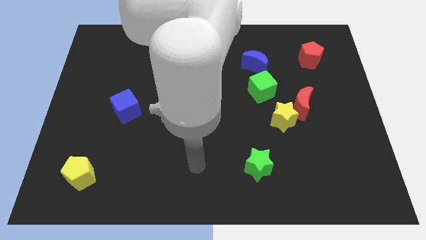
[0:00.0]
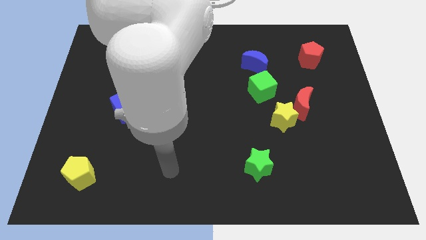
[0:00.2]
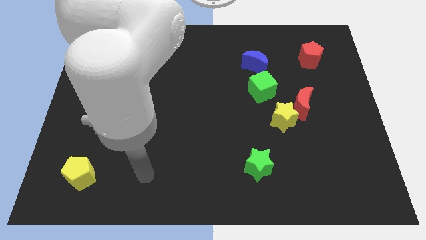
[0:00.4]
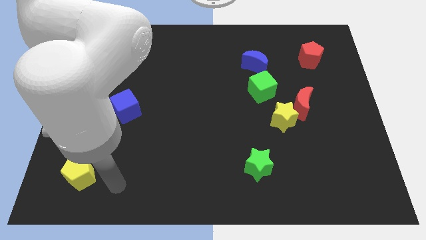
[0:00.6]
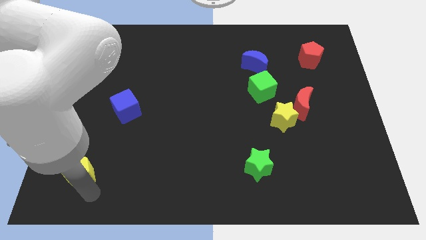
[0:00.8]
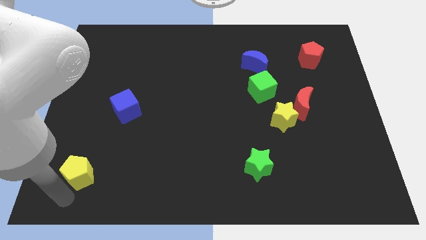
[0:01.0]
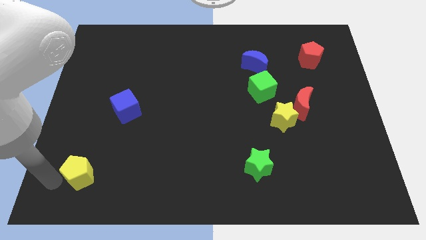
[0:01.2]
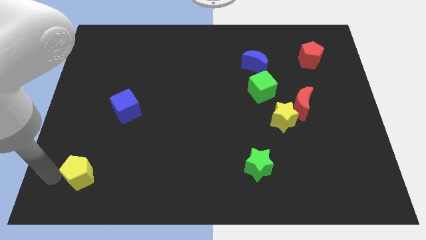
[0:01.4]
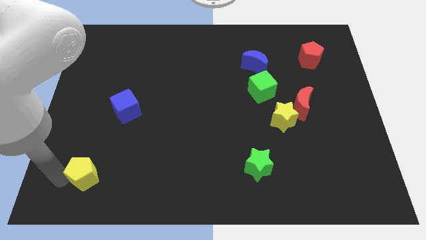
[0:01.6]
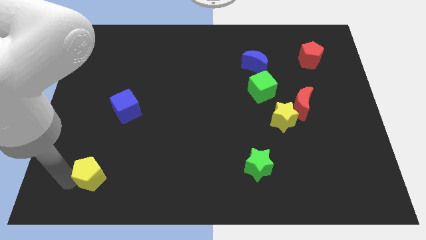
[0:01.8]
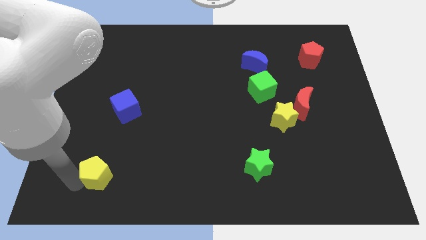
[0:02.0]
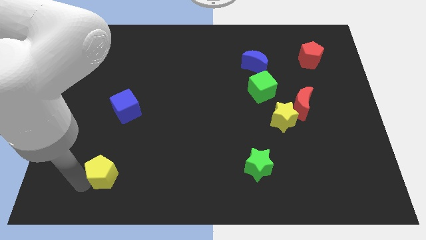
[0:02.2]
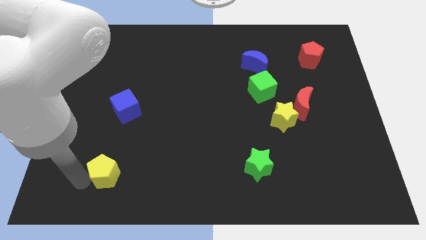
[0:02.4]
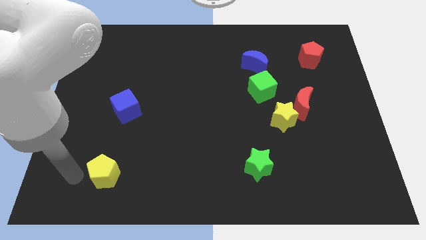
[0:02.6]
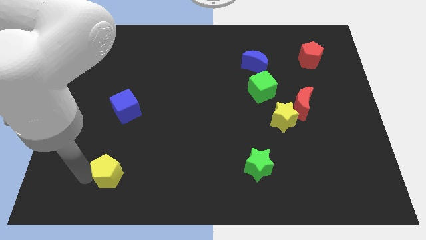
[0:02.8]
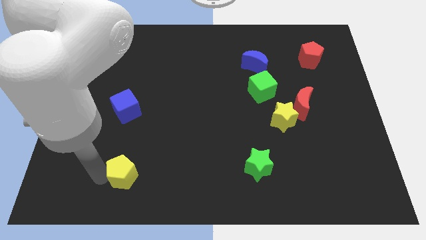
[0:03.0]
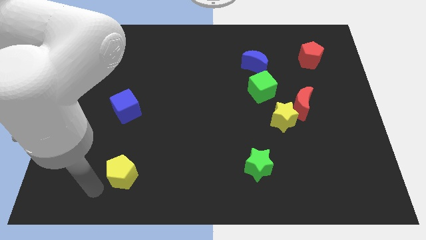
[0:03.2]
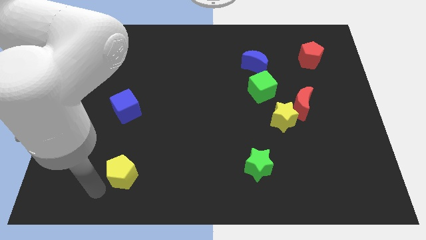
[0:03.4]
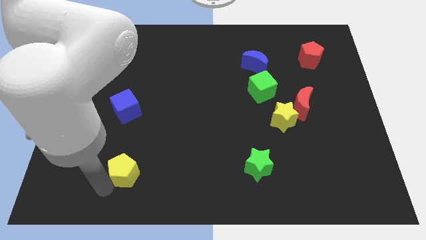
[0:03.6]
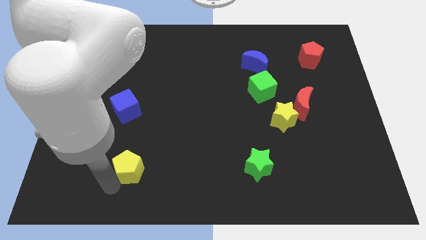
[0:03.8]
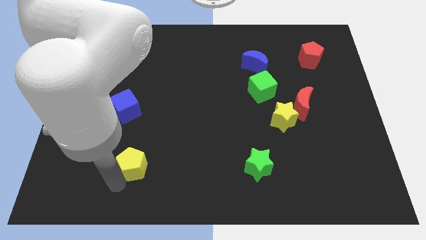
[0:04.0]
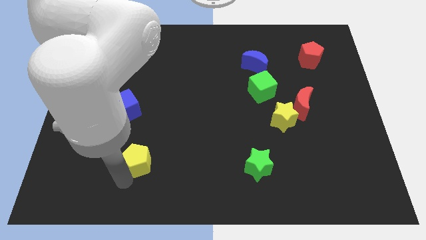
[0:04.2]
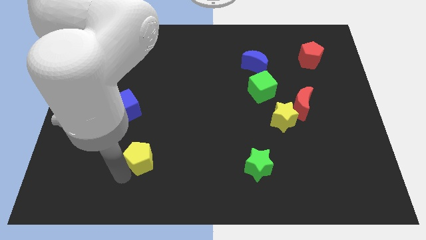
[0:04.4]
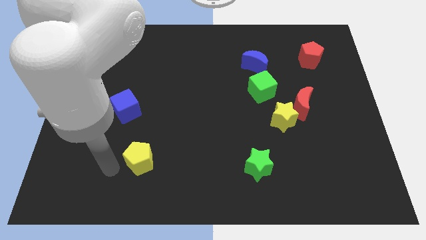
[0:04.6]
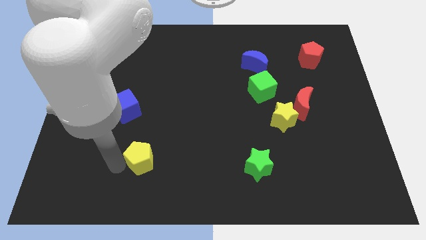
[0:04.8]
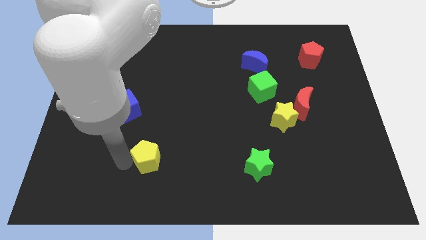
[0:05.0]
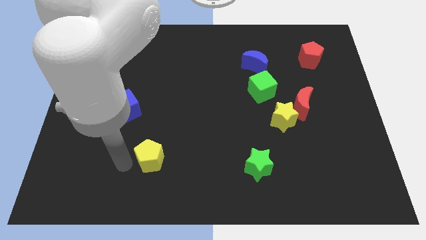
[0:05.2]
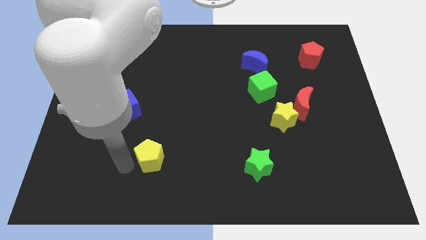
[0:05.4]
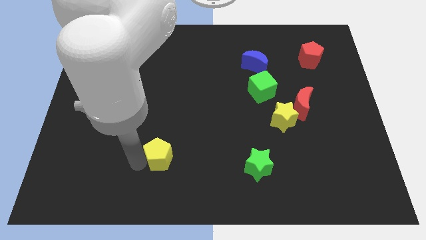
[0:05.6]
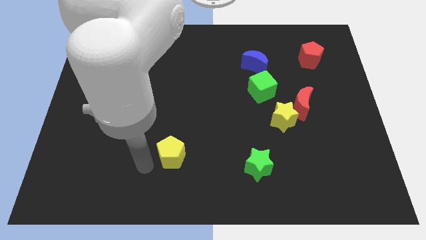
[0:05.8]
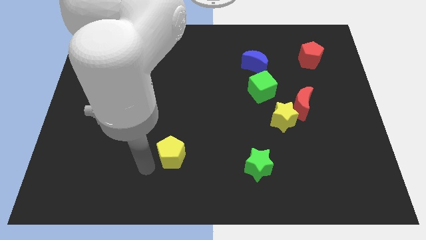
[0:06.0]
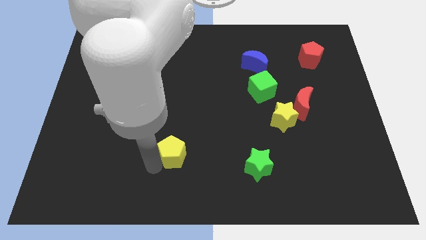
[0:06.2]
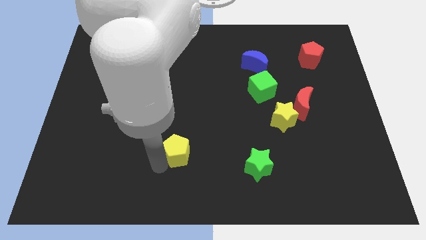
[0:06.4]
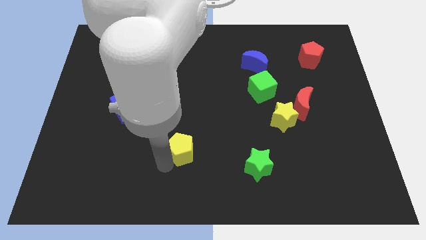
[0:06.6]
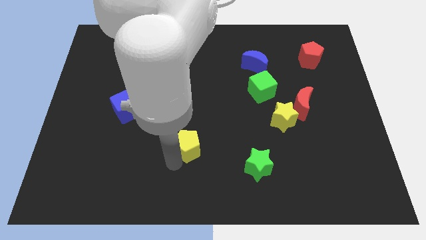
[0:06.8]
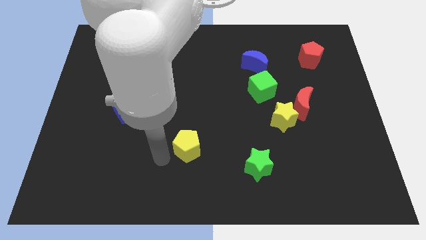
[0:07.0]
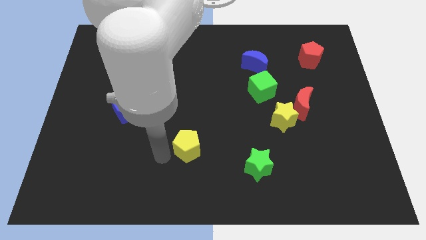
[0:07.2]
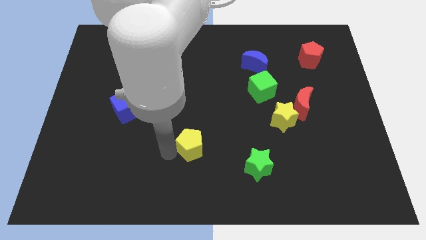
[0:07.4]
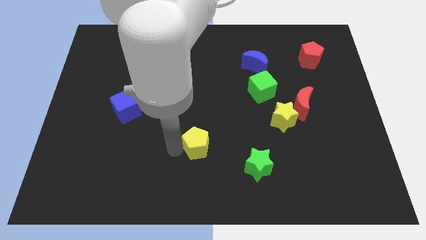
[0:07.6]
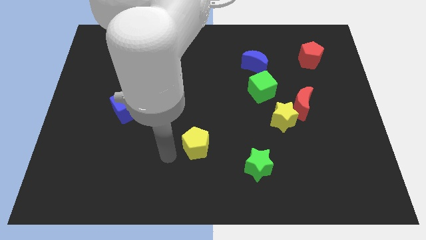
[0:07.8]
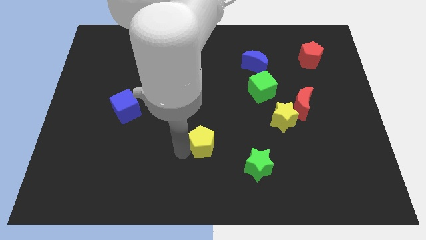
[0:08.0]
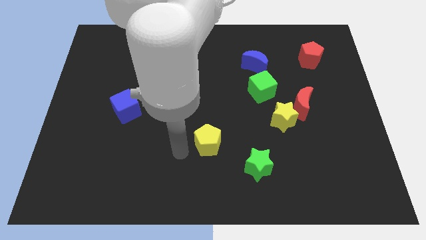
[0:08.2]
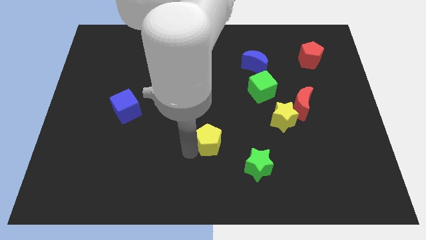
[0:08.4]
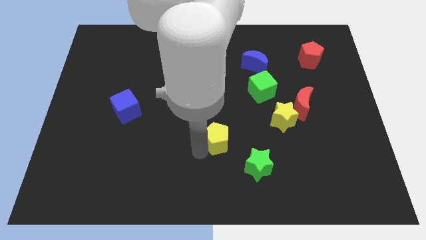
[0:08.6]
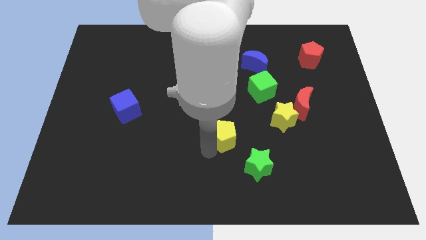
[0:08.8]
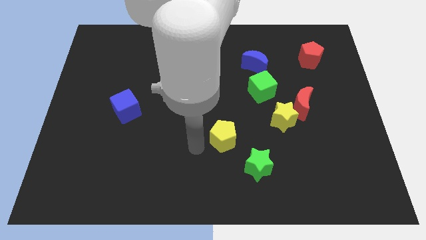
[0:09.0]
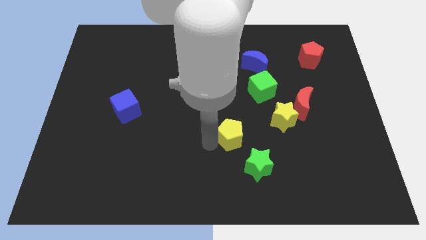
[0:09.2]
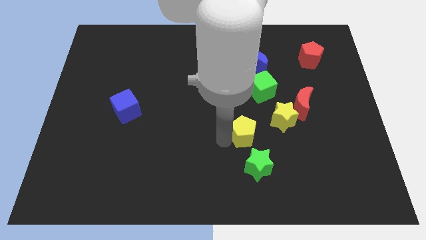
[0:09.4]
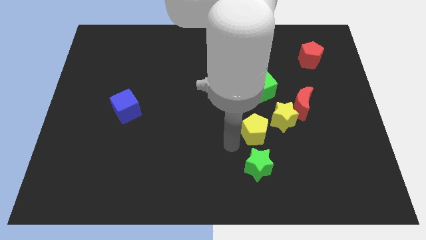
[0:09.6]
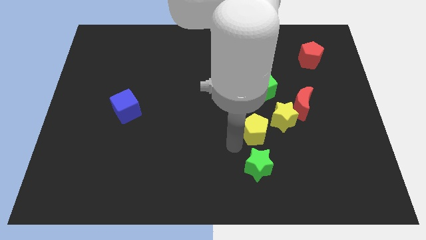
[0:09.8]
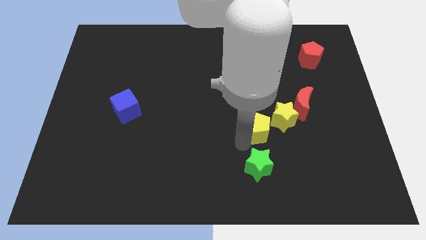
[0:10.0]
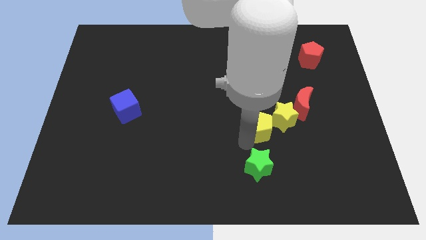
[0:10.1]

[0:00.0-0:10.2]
slide the yellow pentagon next to the yellow star

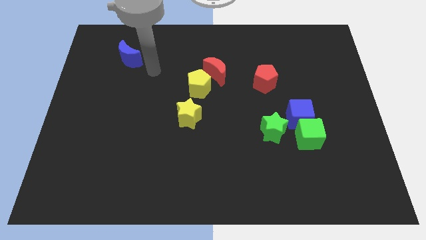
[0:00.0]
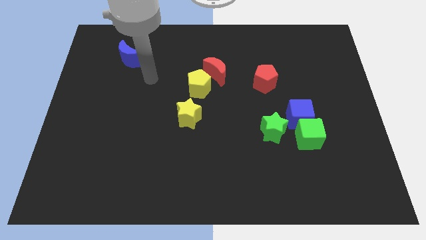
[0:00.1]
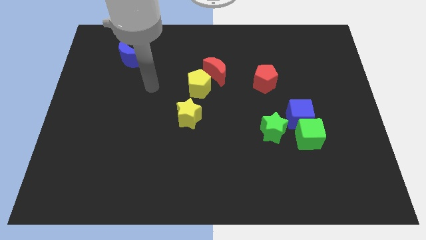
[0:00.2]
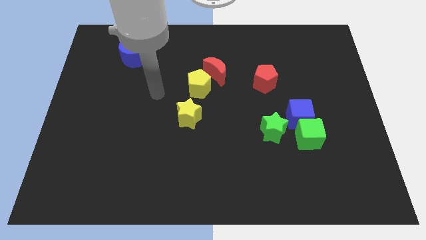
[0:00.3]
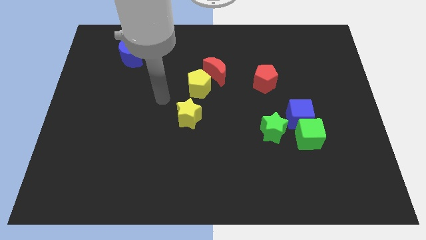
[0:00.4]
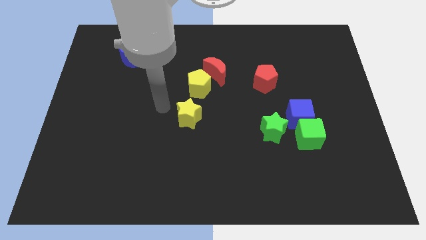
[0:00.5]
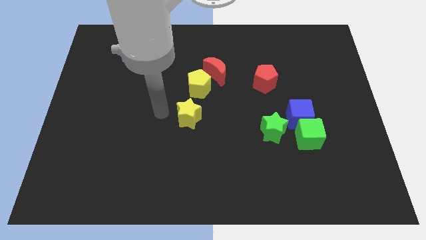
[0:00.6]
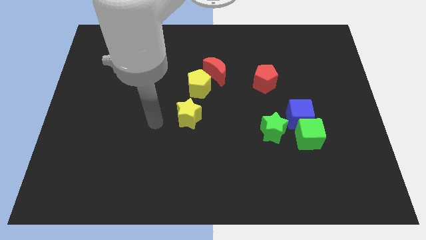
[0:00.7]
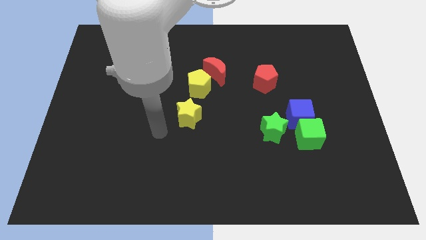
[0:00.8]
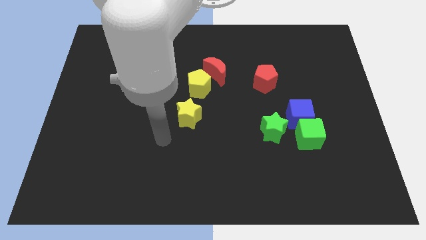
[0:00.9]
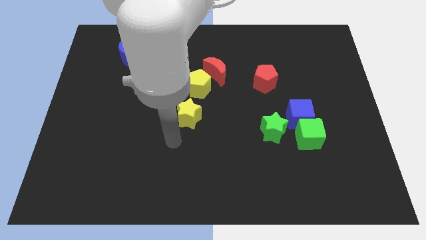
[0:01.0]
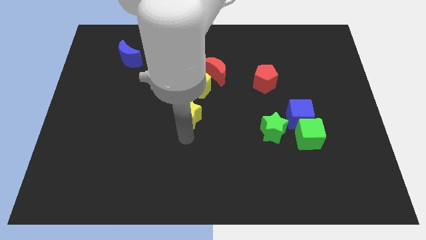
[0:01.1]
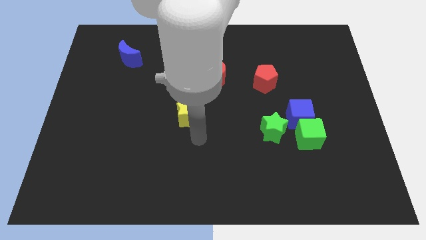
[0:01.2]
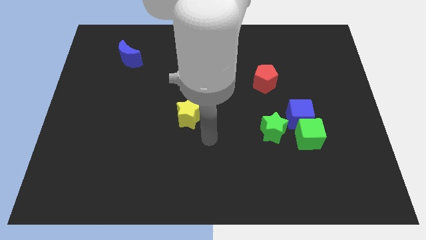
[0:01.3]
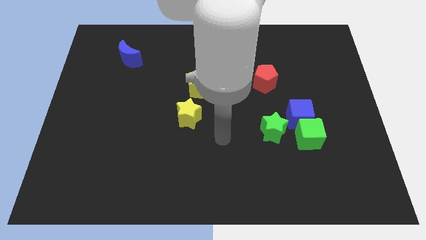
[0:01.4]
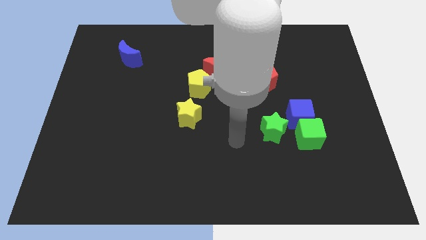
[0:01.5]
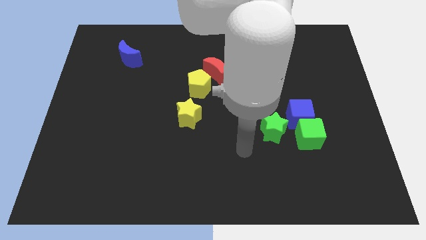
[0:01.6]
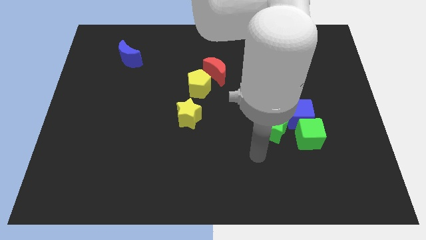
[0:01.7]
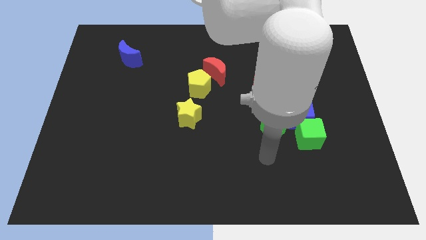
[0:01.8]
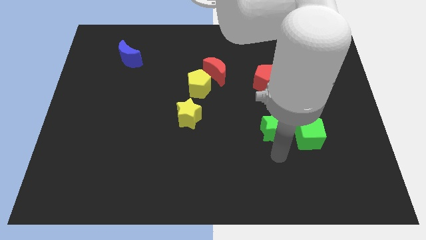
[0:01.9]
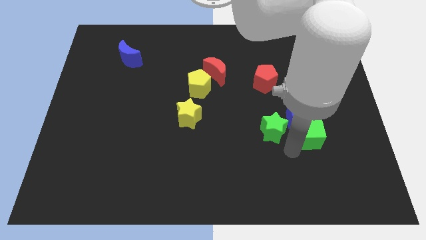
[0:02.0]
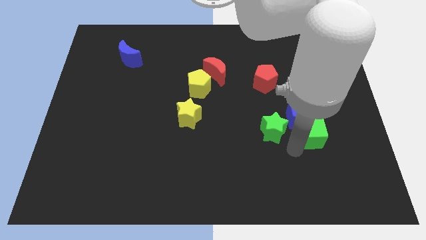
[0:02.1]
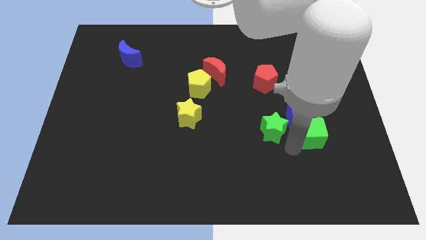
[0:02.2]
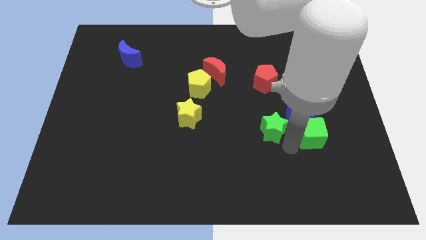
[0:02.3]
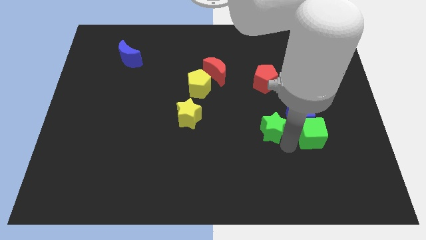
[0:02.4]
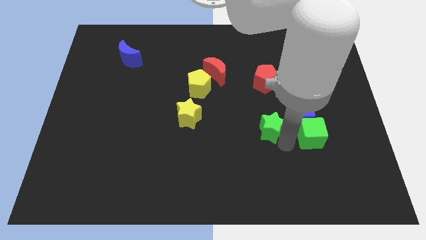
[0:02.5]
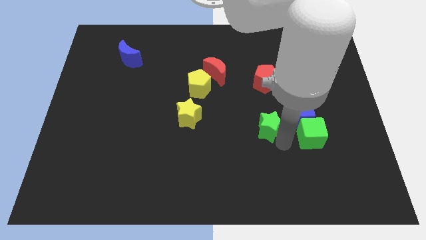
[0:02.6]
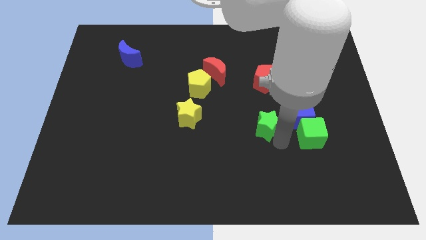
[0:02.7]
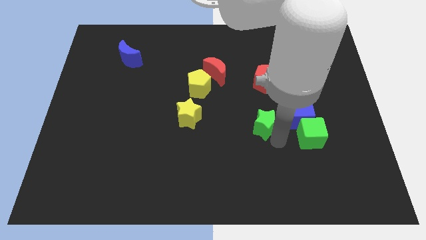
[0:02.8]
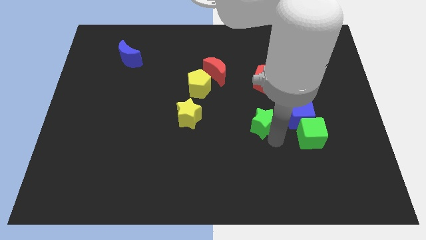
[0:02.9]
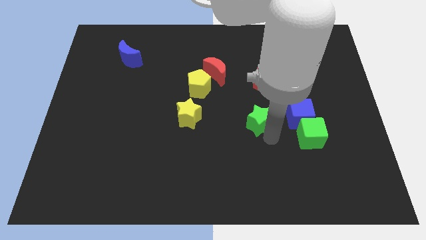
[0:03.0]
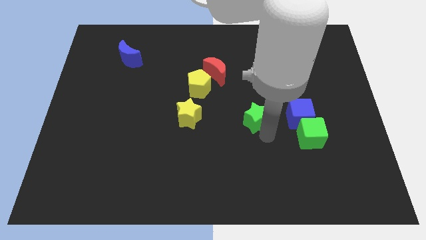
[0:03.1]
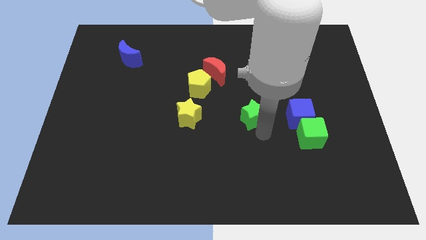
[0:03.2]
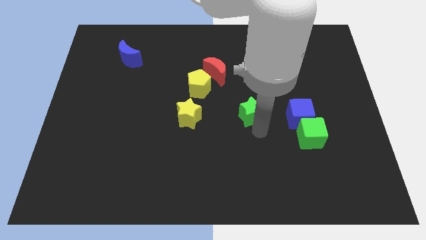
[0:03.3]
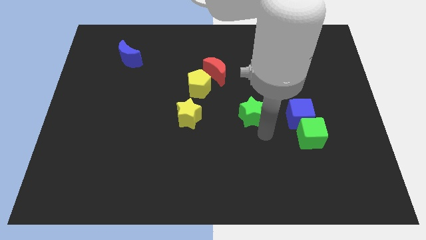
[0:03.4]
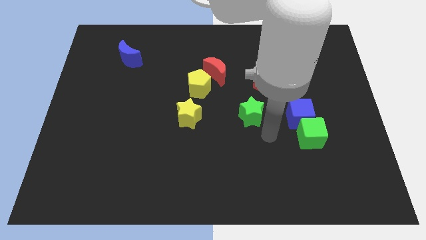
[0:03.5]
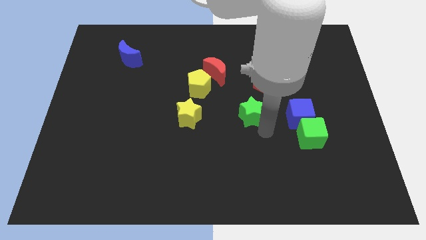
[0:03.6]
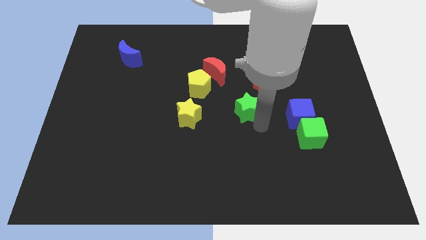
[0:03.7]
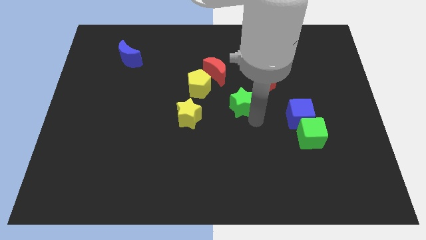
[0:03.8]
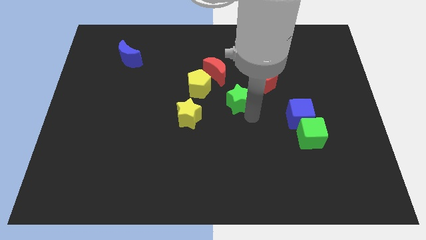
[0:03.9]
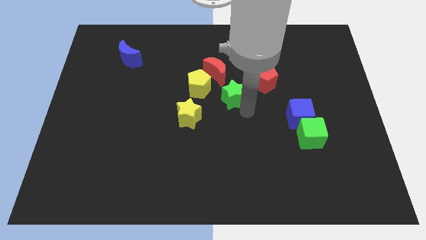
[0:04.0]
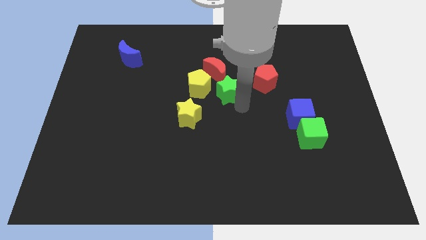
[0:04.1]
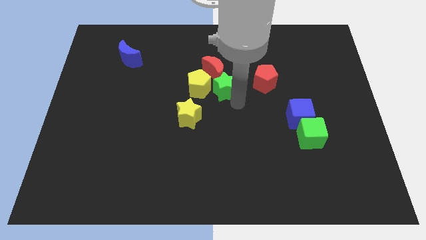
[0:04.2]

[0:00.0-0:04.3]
slide the green star next to the red moon
